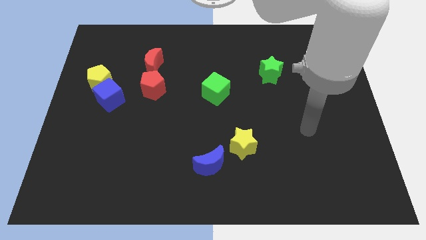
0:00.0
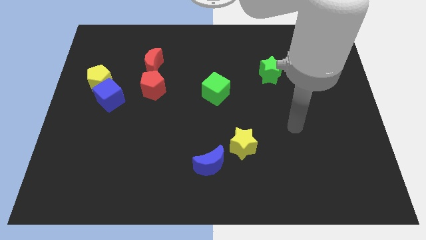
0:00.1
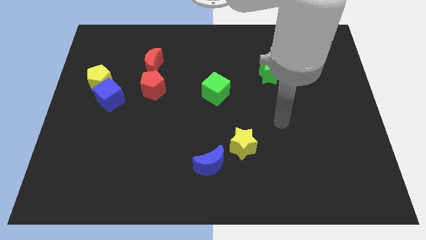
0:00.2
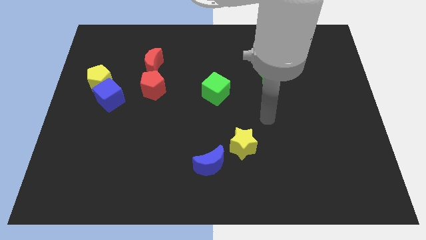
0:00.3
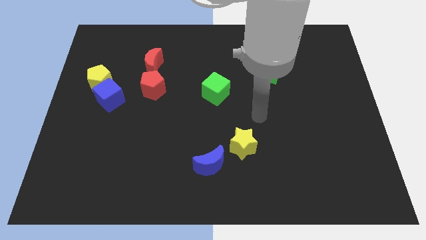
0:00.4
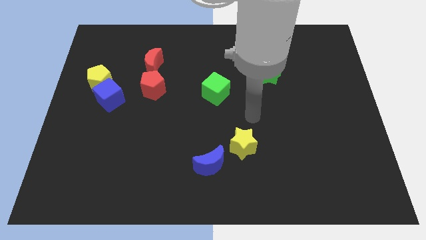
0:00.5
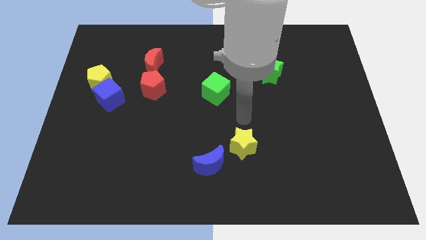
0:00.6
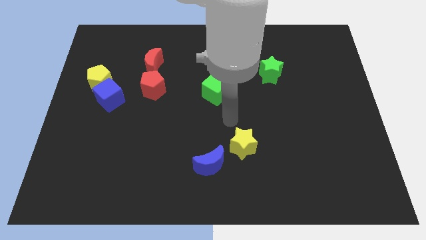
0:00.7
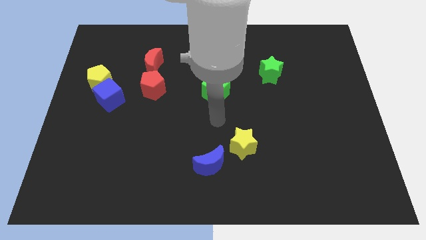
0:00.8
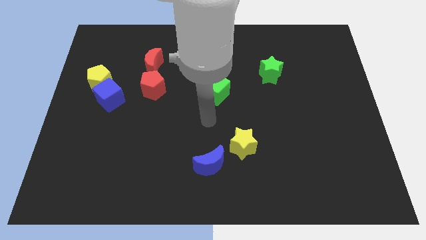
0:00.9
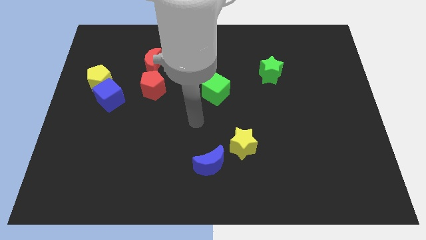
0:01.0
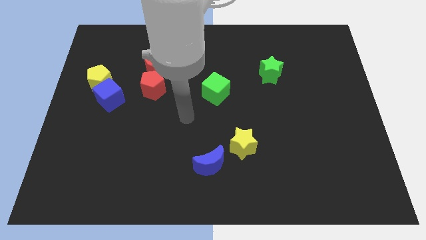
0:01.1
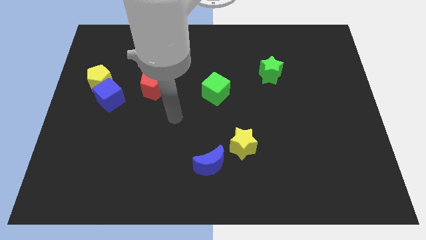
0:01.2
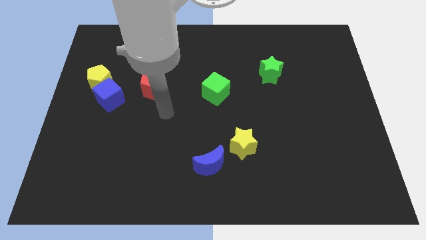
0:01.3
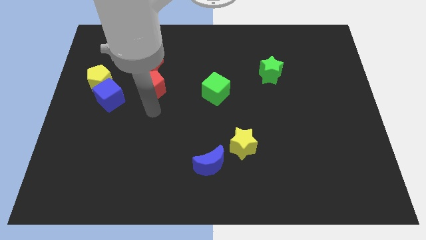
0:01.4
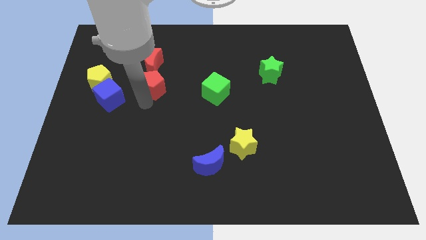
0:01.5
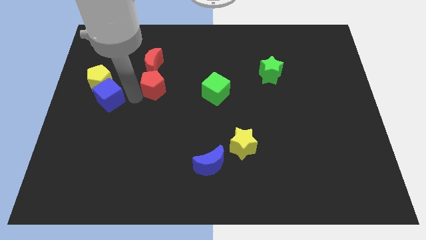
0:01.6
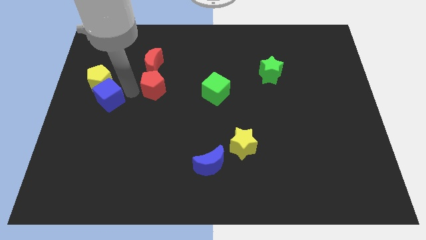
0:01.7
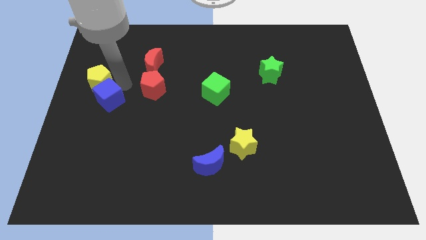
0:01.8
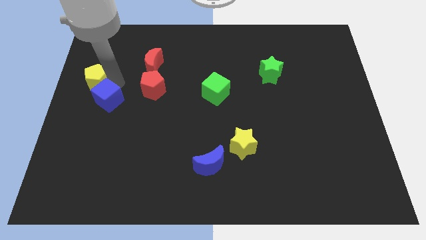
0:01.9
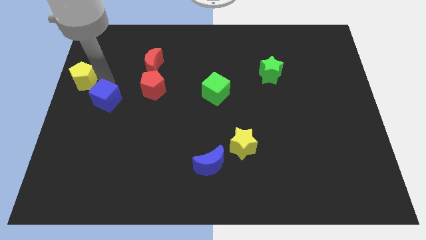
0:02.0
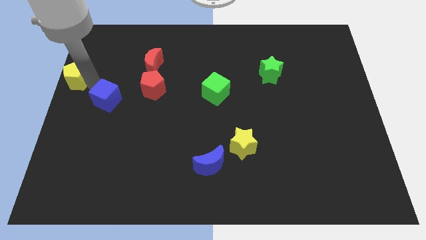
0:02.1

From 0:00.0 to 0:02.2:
move the blue cube away from the yellow pentagon

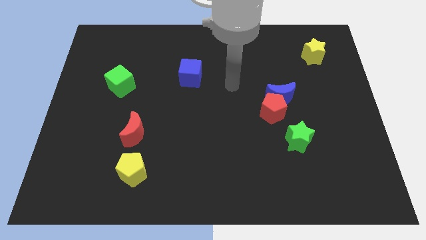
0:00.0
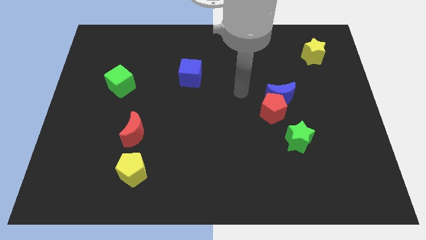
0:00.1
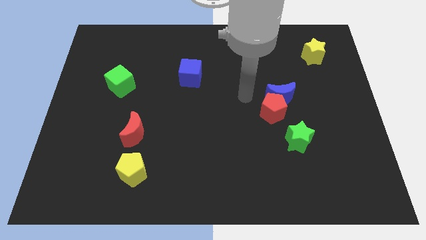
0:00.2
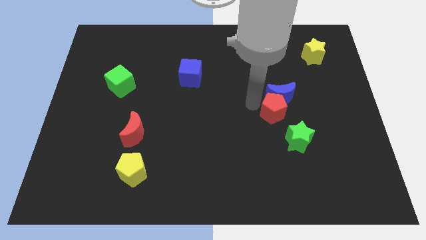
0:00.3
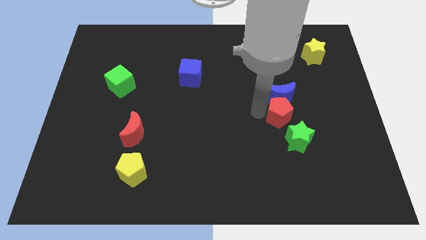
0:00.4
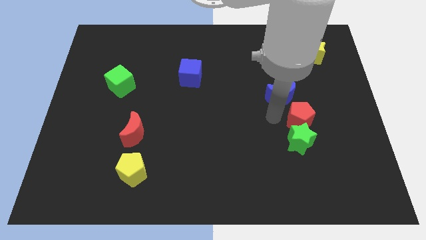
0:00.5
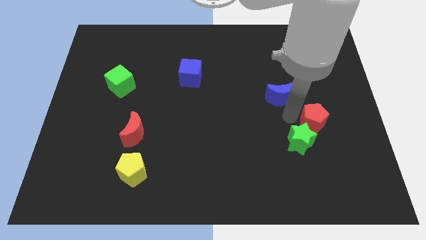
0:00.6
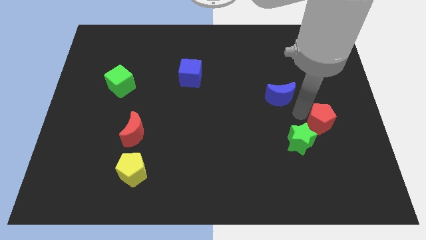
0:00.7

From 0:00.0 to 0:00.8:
pull the blue moon apart from the red pentagon

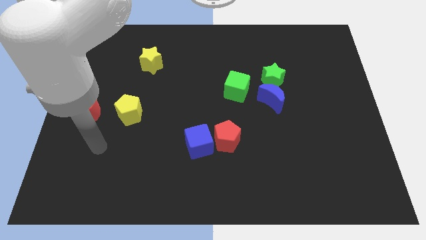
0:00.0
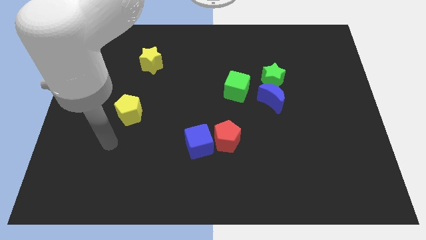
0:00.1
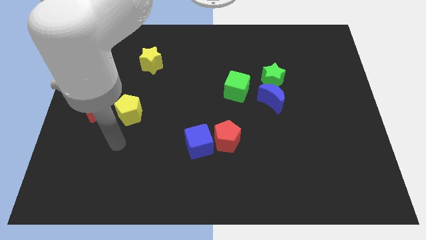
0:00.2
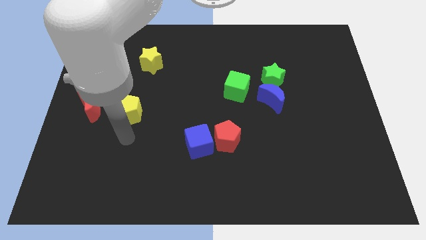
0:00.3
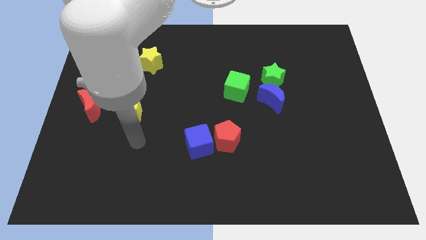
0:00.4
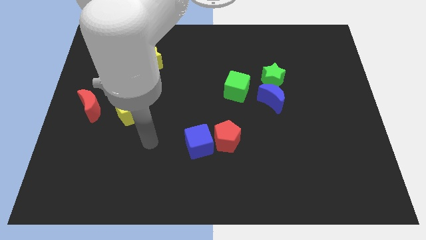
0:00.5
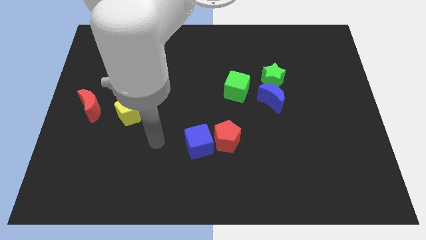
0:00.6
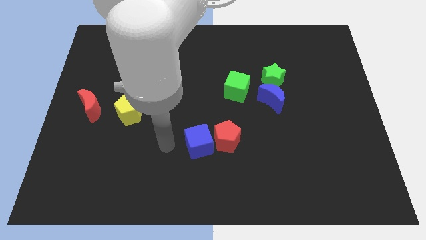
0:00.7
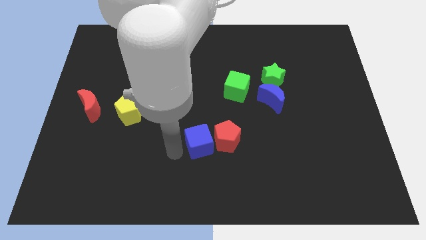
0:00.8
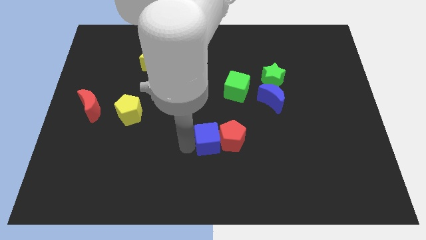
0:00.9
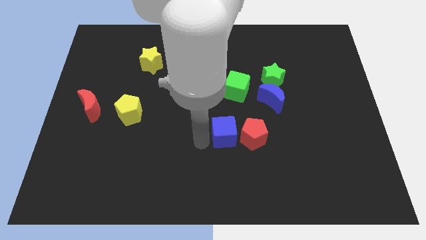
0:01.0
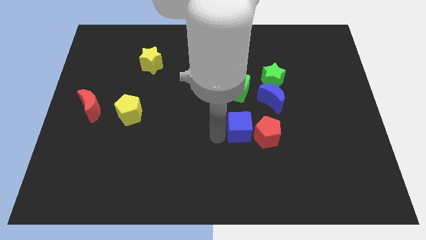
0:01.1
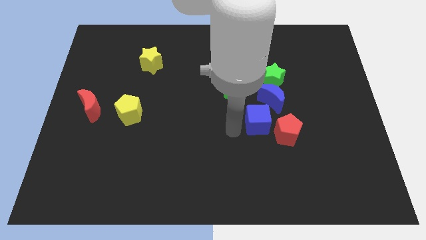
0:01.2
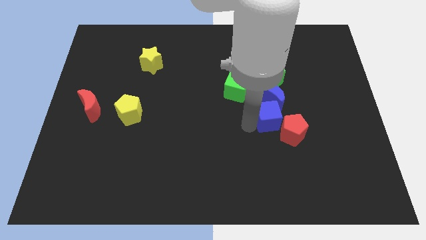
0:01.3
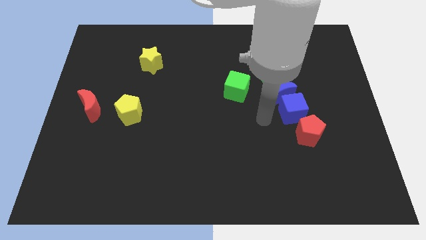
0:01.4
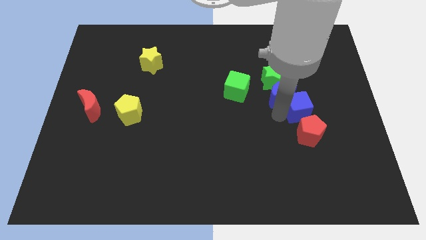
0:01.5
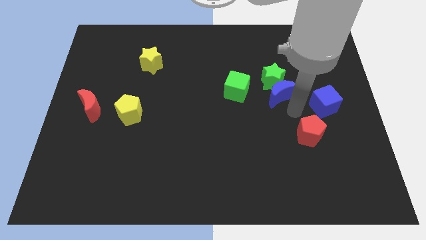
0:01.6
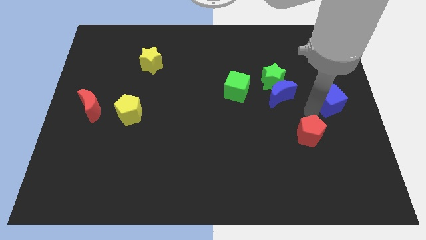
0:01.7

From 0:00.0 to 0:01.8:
separate the red pentagon from the blue cube

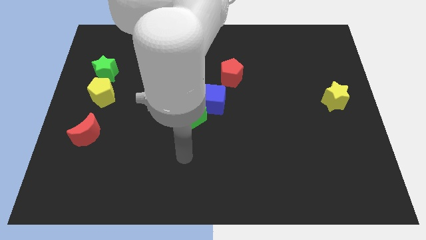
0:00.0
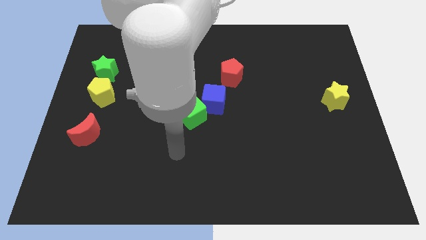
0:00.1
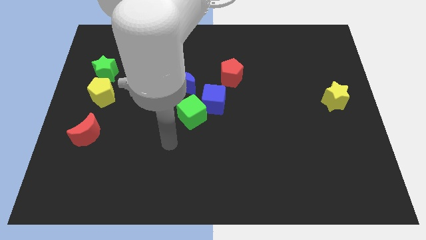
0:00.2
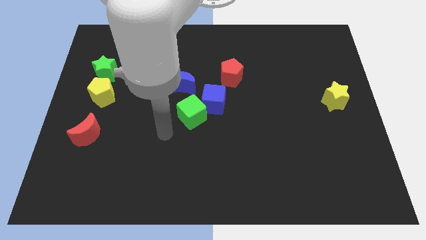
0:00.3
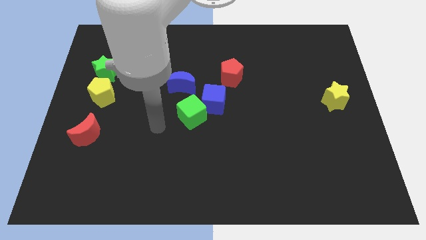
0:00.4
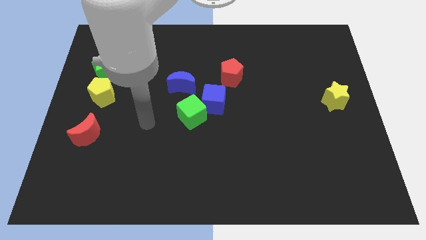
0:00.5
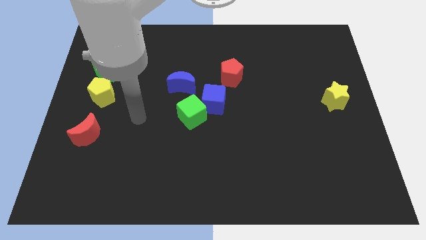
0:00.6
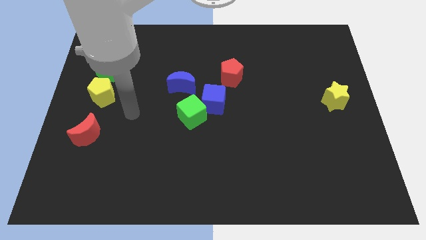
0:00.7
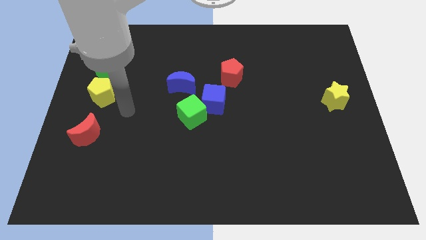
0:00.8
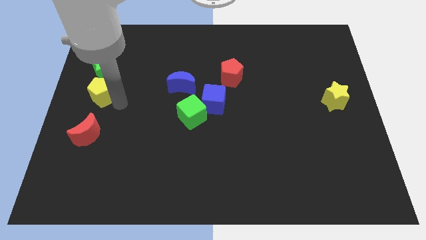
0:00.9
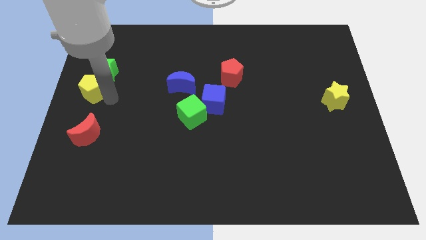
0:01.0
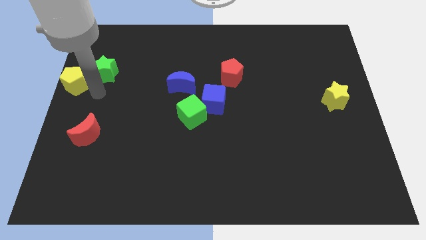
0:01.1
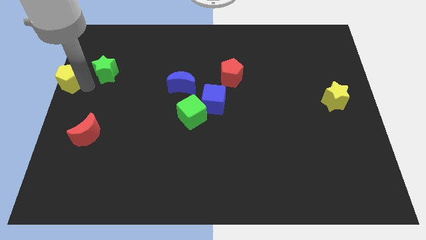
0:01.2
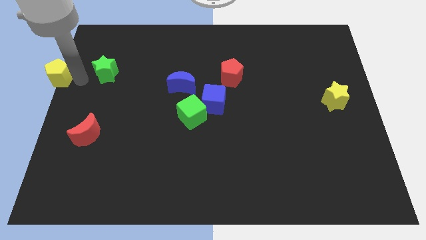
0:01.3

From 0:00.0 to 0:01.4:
pull the green star apart from the yellow pentagon

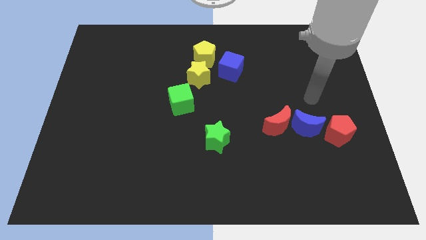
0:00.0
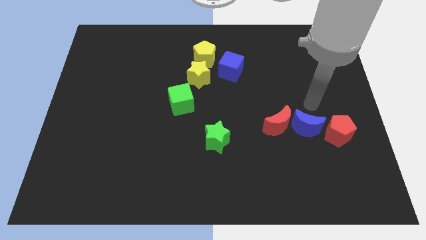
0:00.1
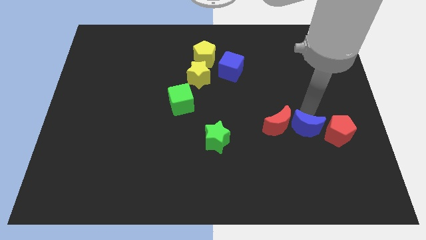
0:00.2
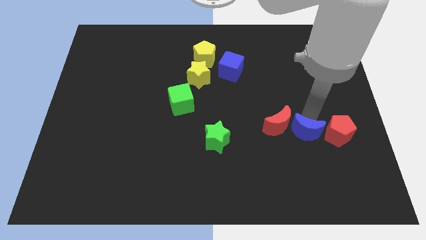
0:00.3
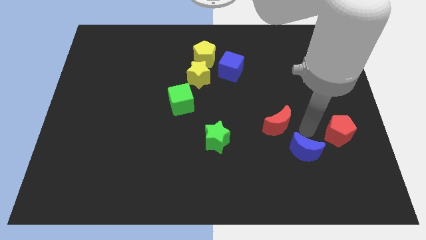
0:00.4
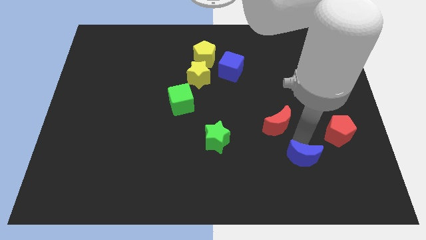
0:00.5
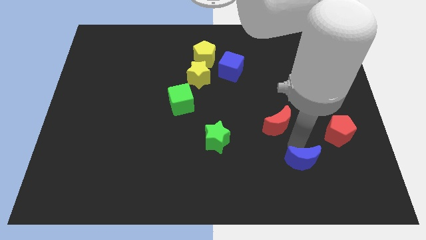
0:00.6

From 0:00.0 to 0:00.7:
separate the red moon from the blue moon

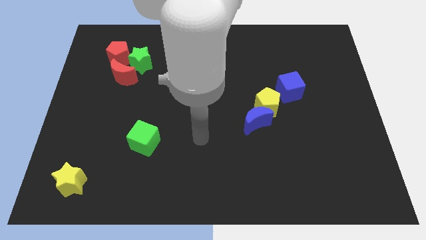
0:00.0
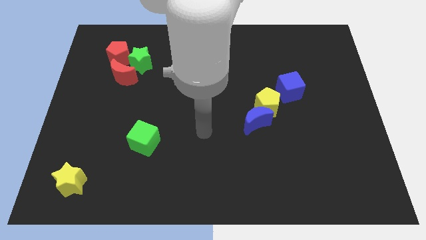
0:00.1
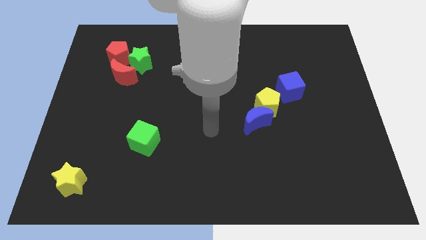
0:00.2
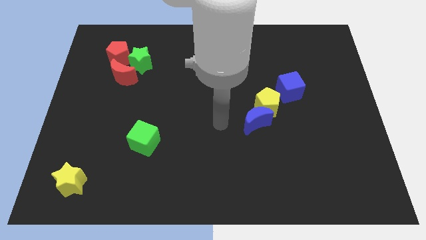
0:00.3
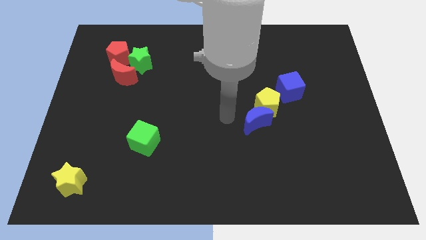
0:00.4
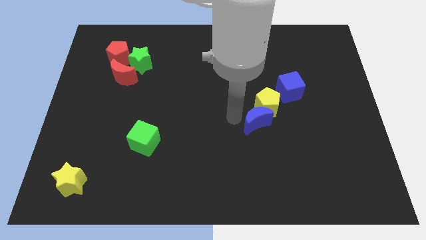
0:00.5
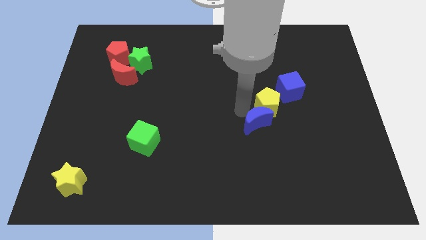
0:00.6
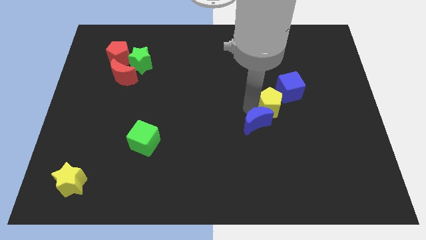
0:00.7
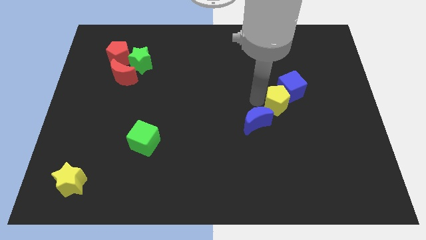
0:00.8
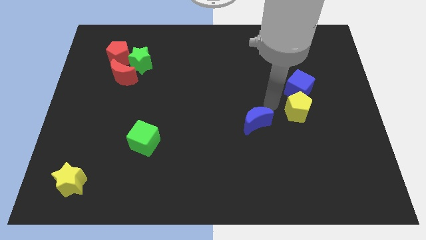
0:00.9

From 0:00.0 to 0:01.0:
separate the blue moon from the yellow pentagon

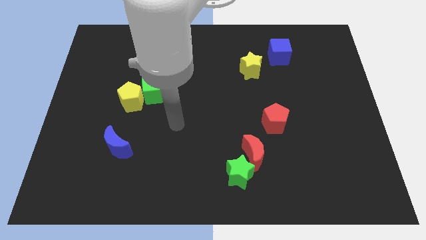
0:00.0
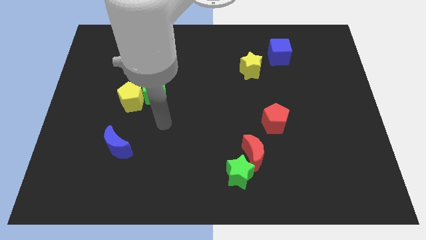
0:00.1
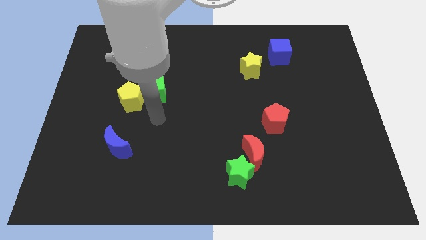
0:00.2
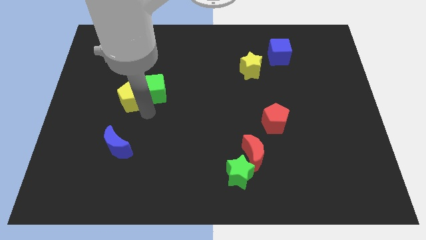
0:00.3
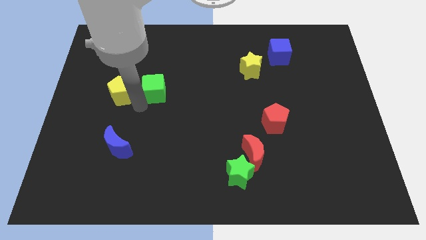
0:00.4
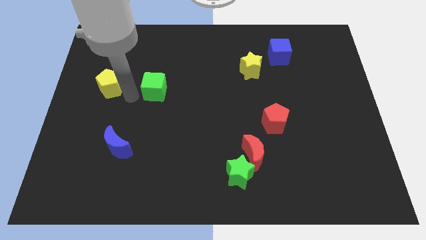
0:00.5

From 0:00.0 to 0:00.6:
separate the green cube from the yellow pentagon

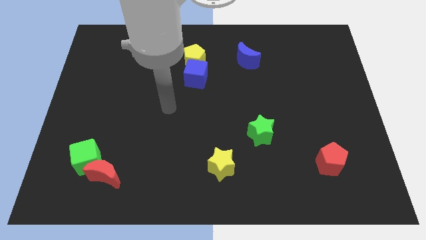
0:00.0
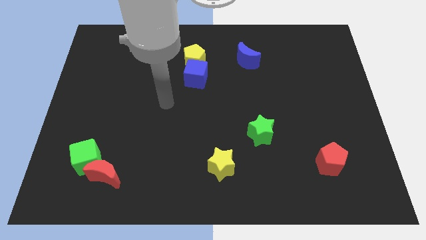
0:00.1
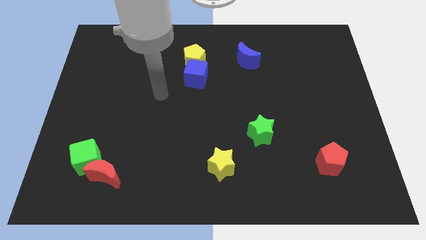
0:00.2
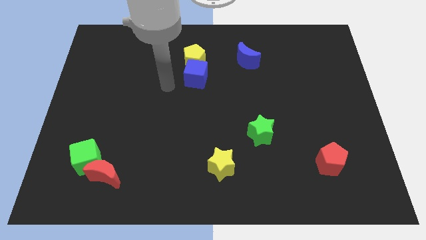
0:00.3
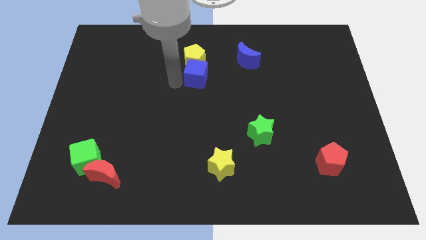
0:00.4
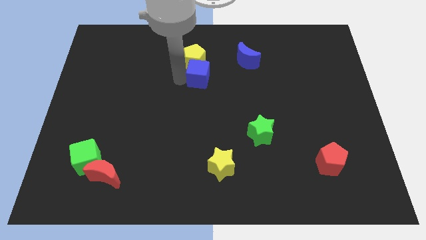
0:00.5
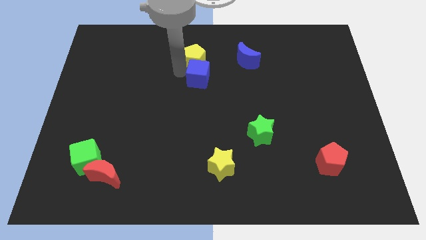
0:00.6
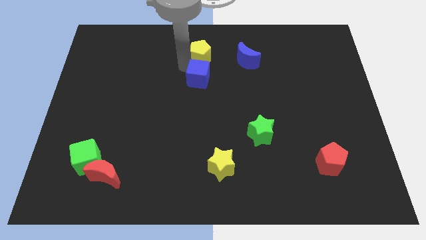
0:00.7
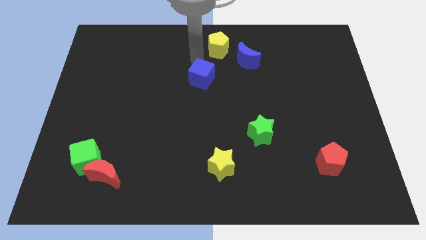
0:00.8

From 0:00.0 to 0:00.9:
pull the blue cube apart from the yellow pentagon

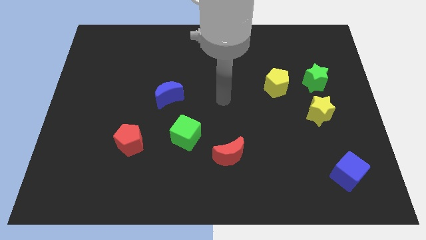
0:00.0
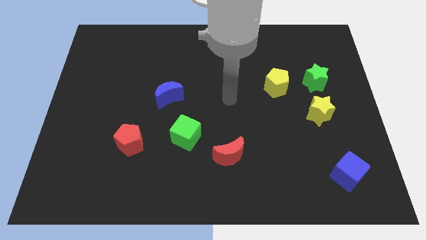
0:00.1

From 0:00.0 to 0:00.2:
move the yellow star away from the green star
